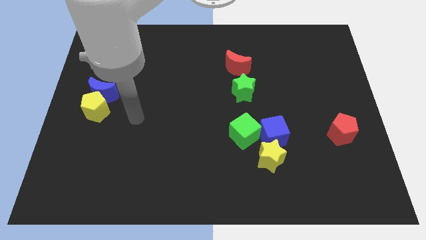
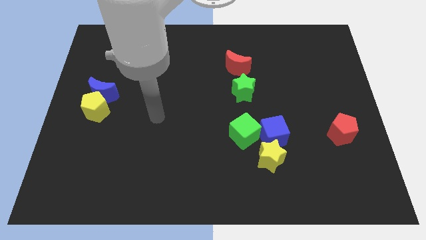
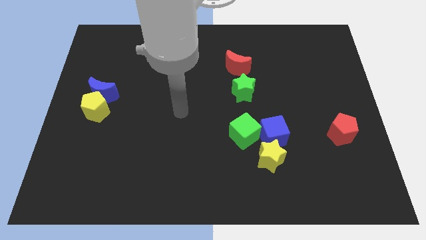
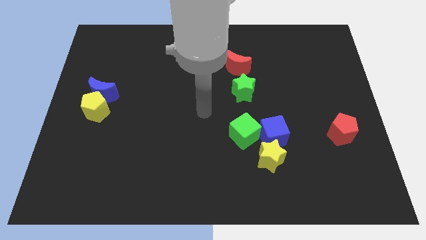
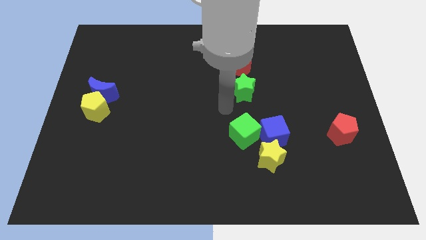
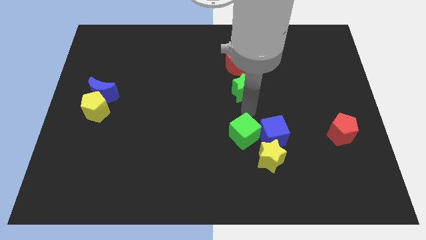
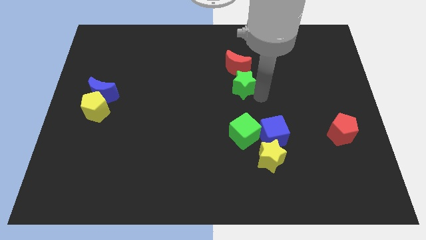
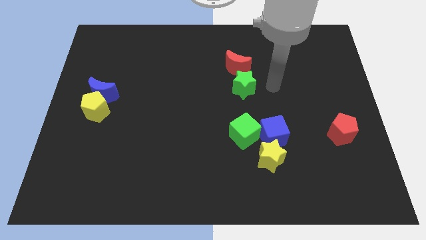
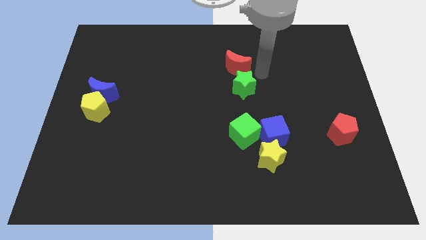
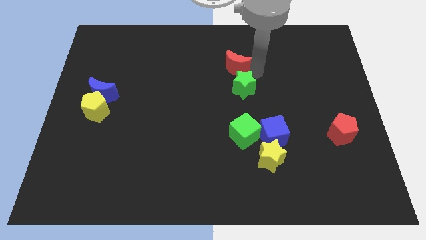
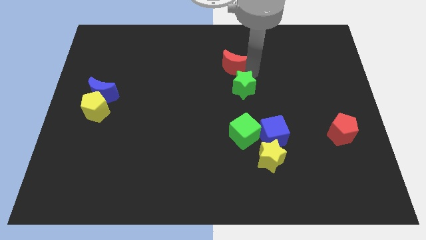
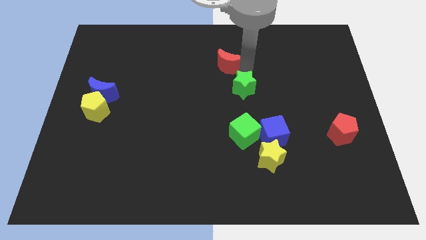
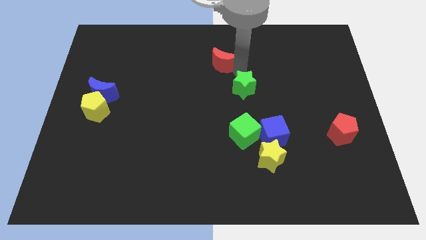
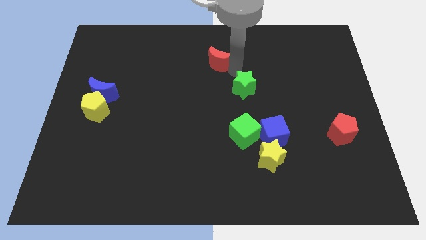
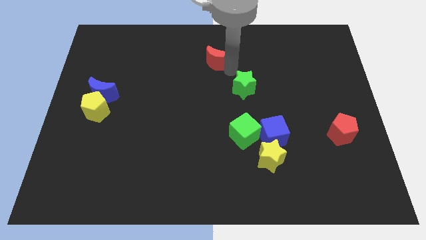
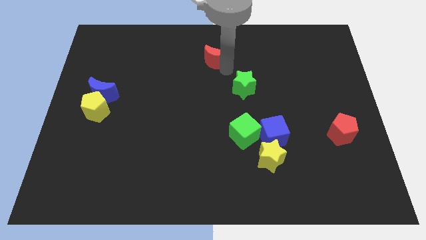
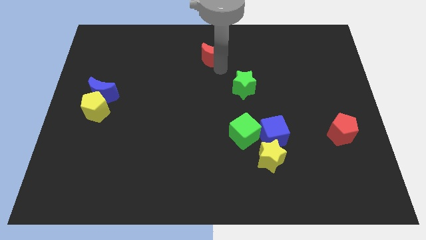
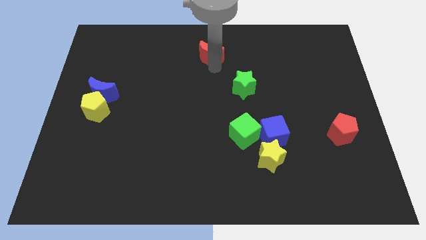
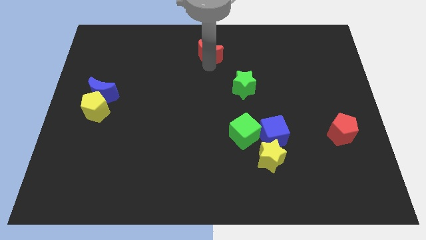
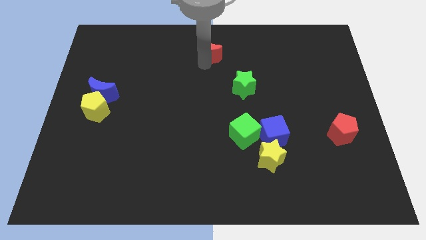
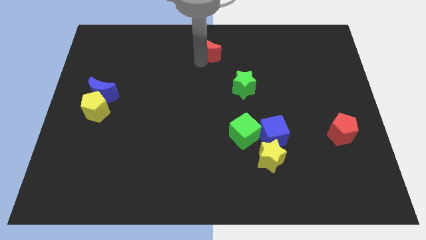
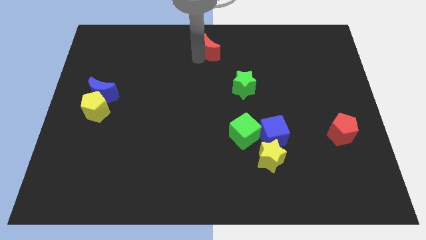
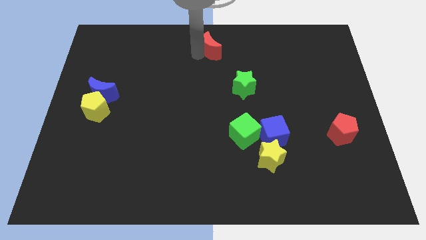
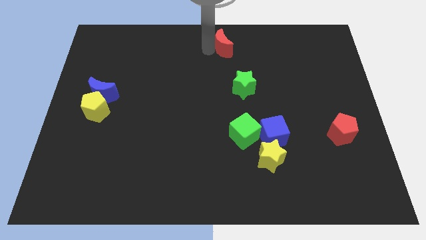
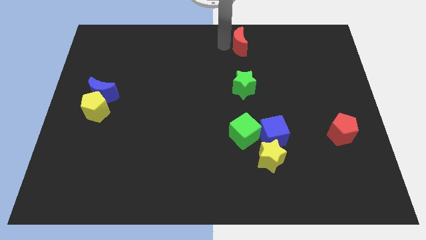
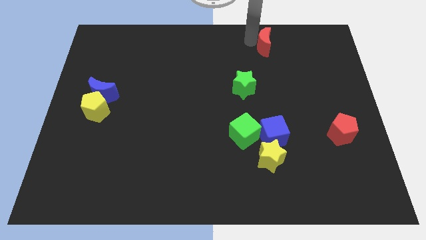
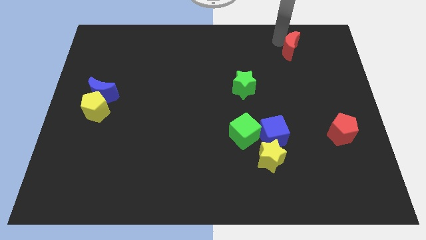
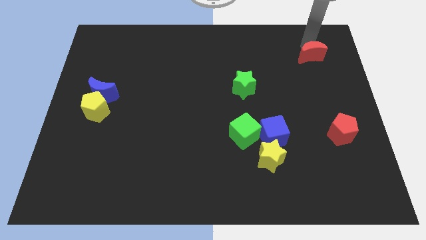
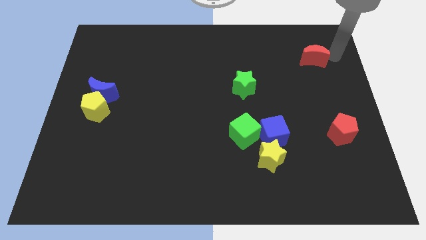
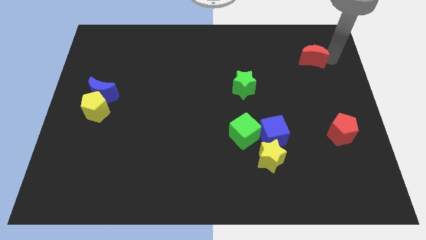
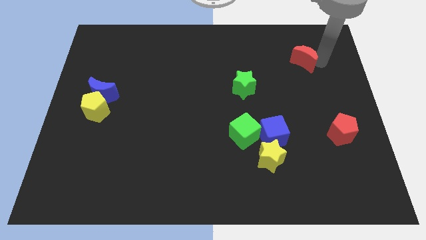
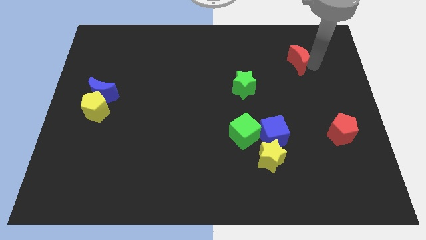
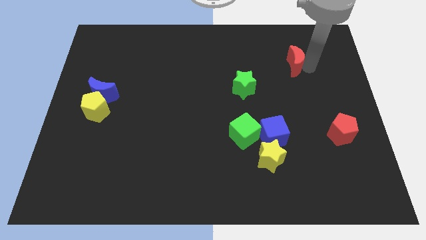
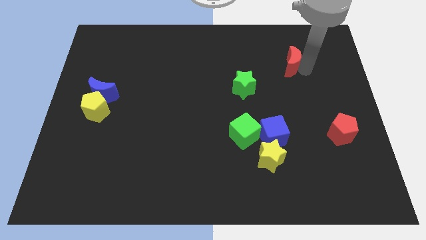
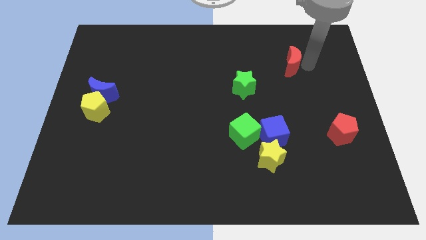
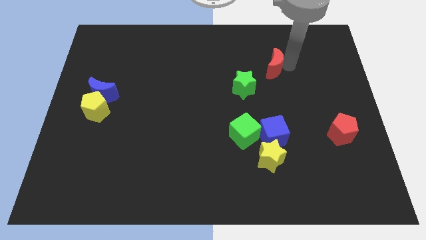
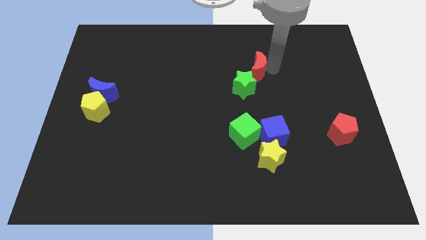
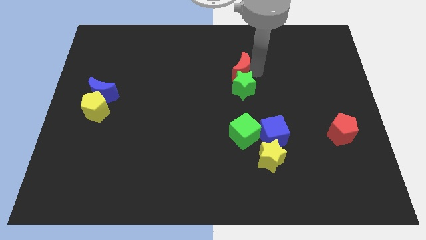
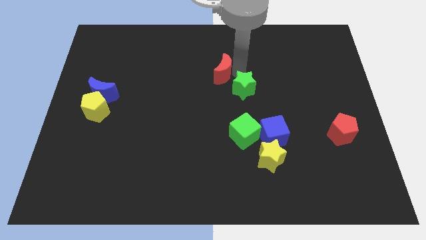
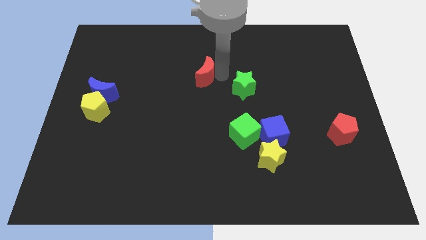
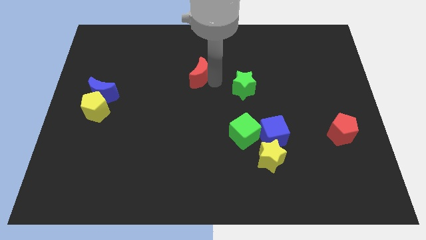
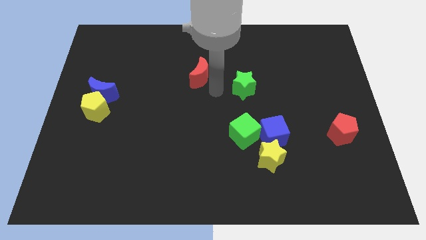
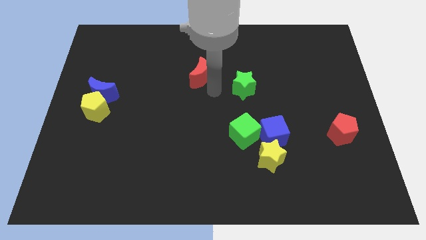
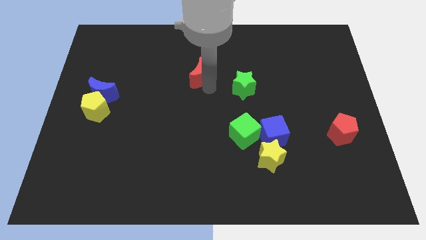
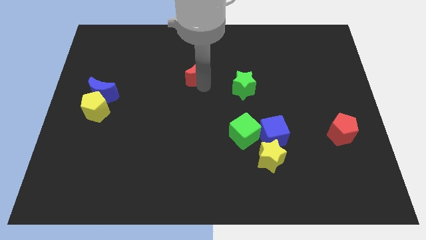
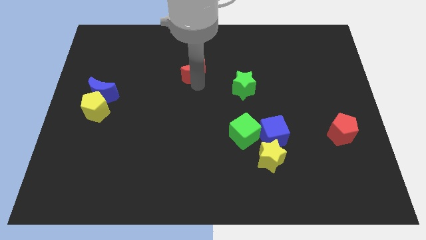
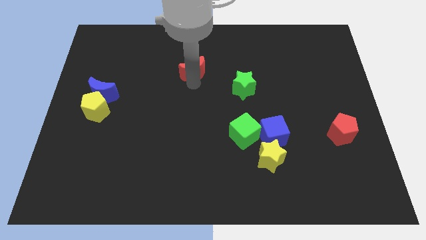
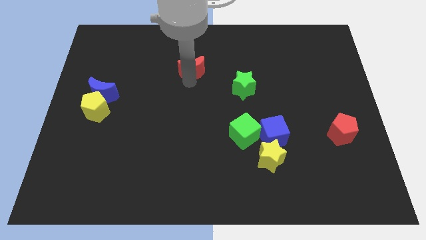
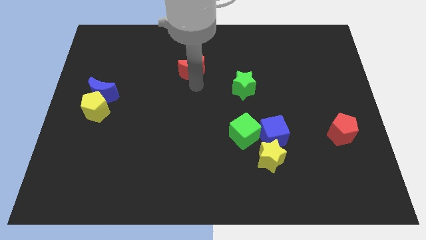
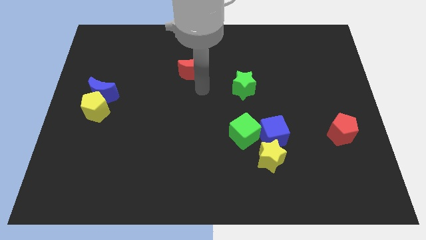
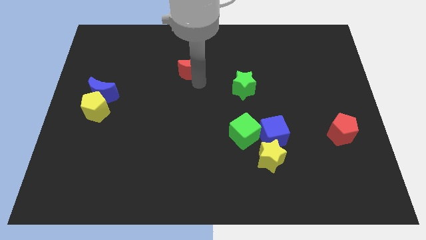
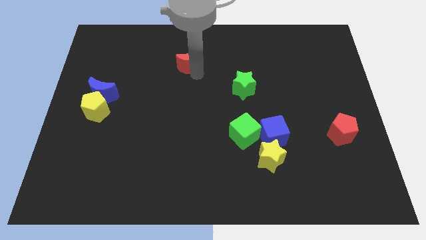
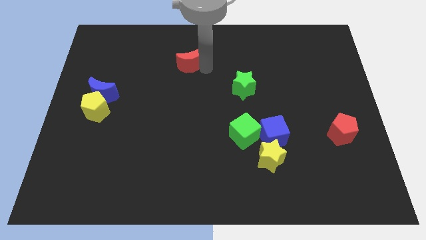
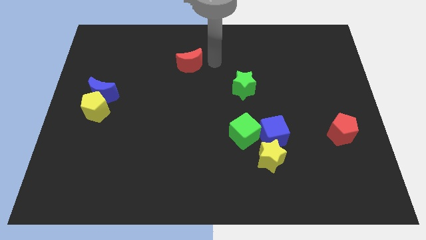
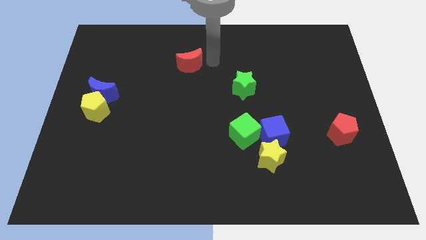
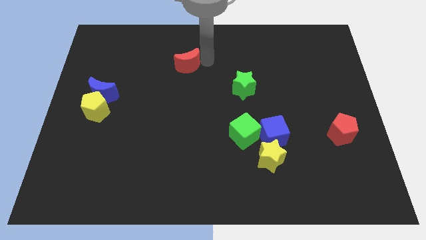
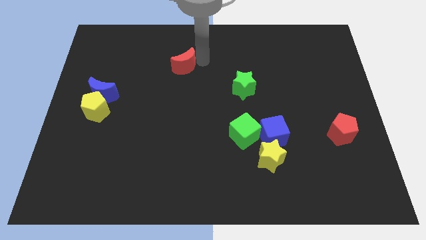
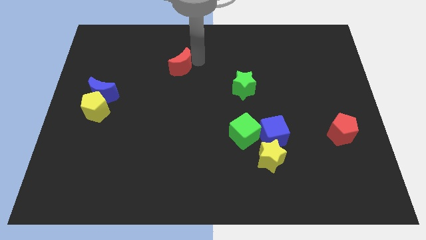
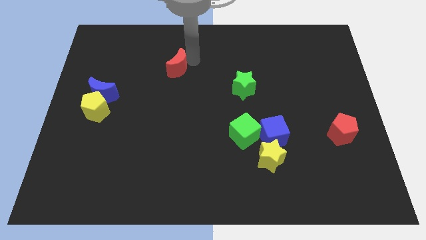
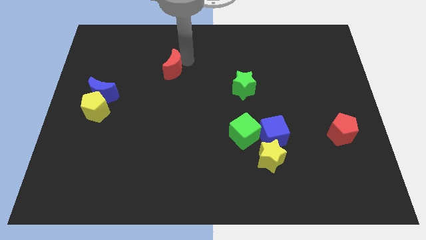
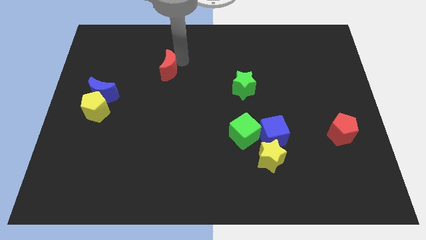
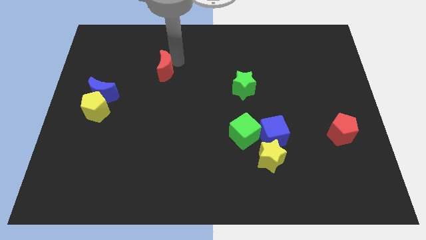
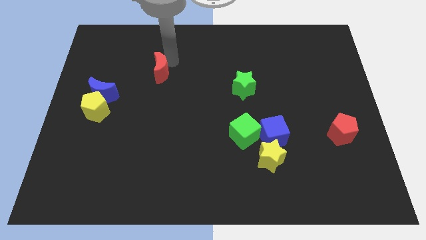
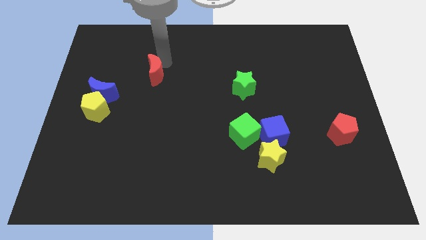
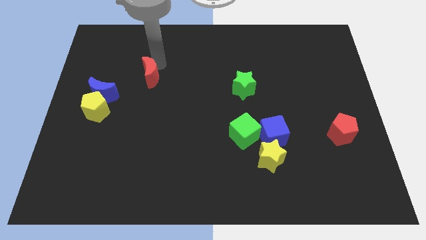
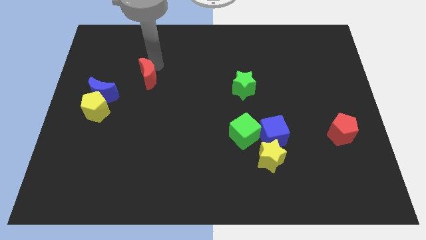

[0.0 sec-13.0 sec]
push the red moon to the top right side of the blue moon

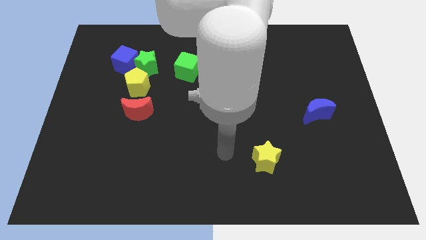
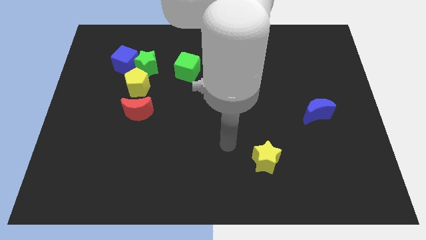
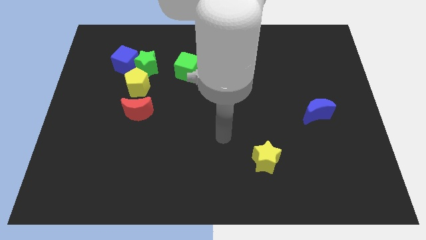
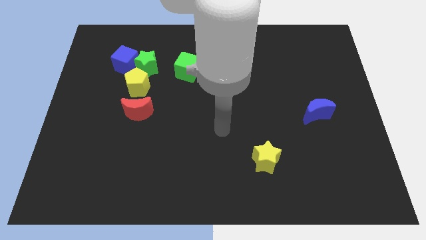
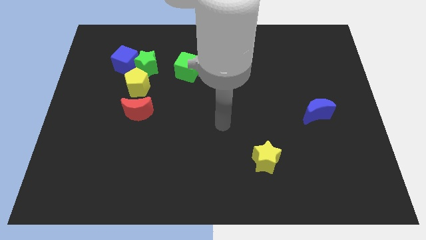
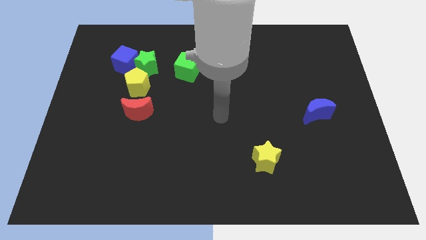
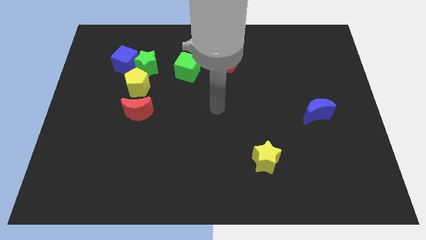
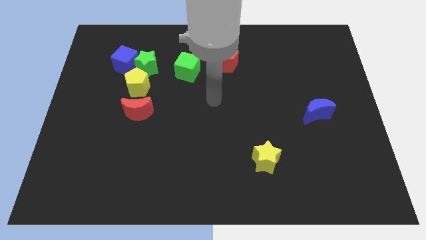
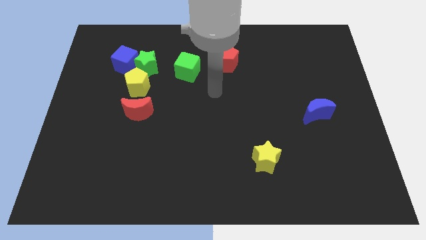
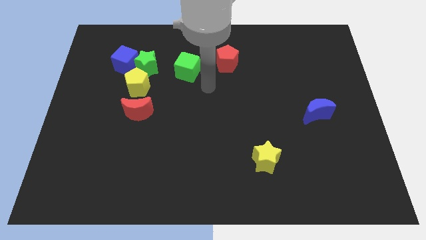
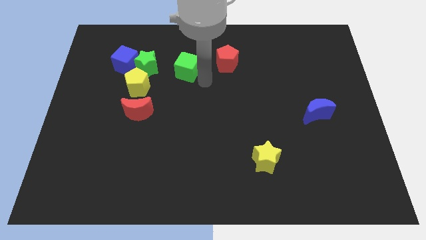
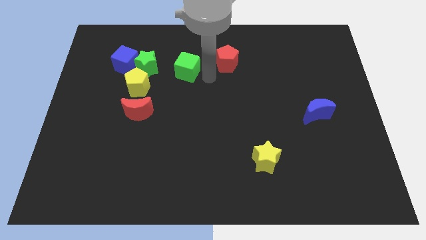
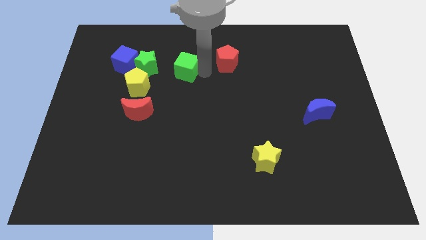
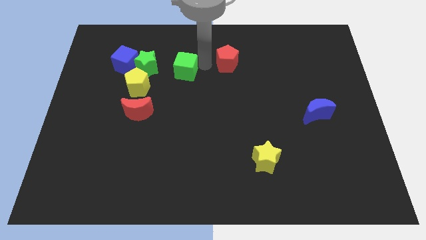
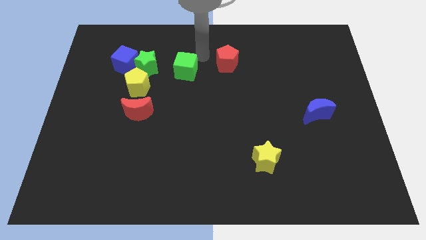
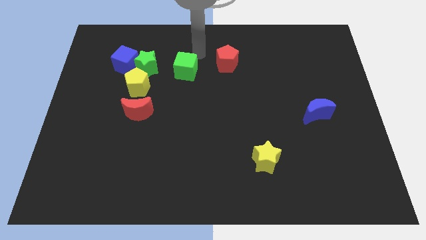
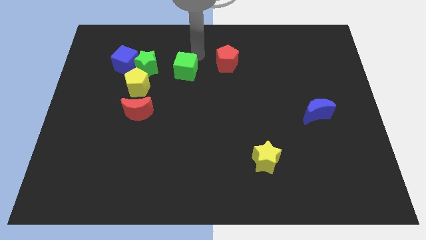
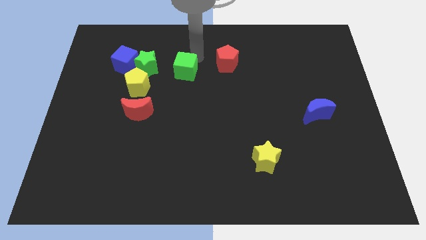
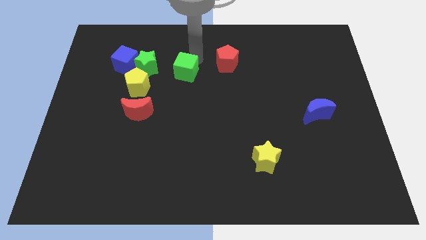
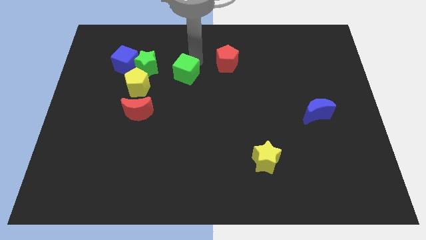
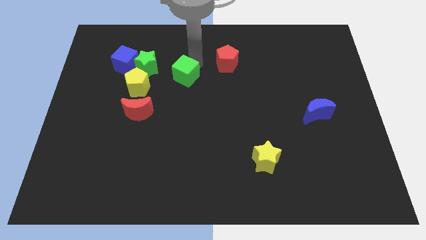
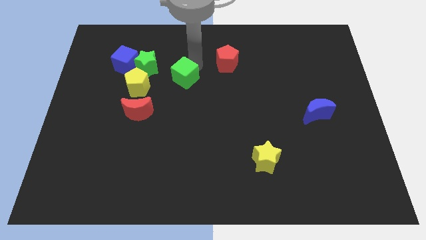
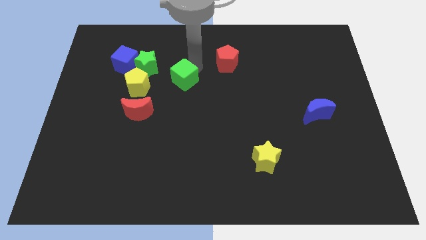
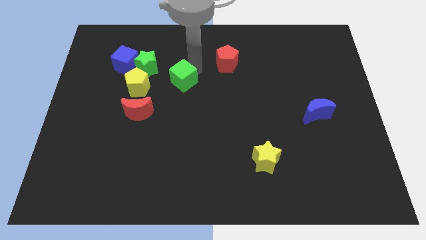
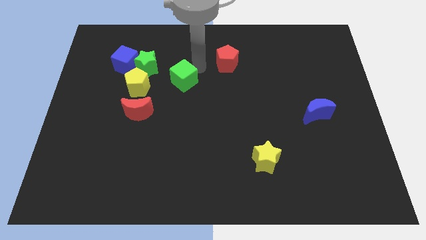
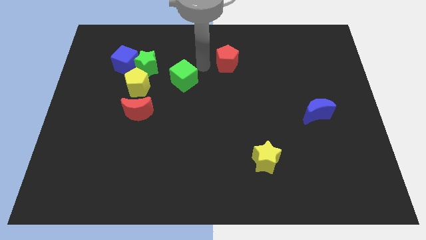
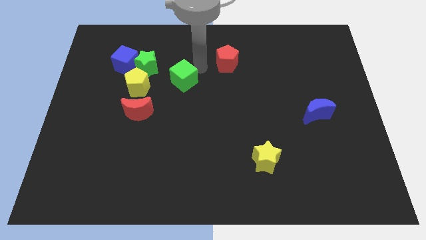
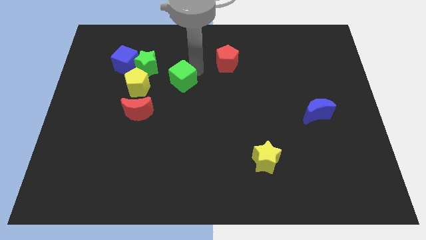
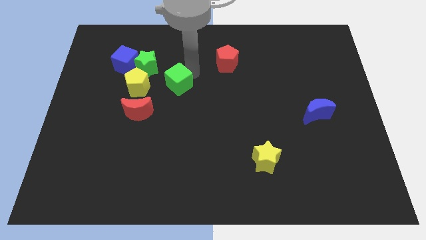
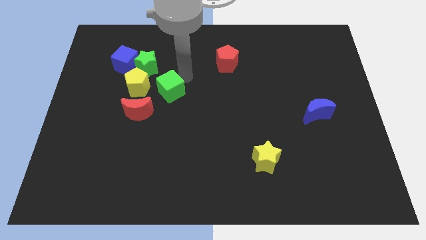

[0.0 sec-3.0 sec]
slide the green cube to the bottom right side of the yellow pentagon
